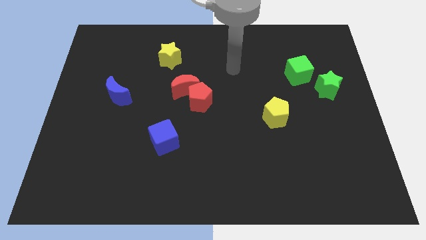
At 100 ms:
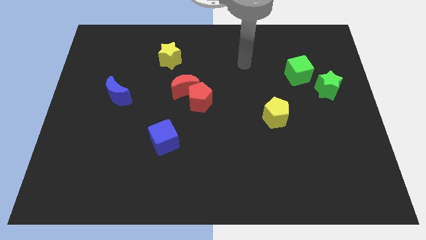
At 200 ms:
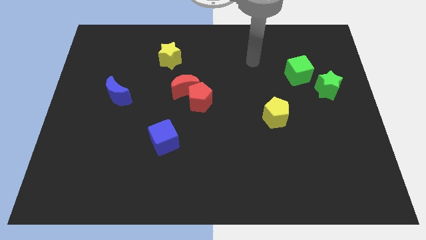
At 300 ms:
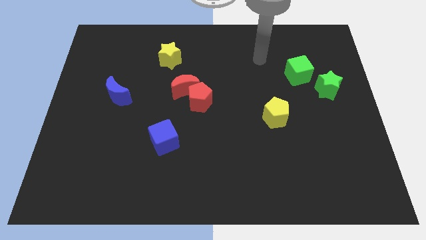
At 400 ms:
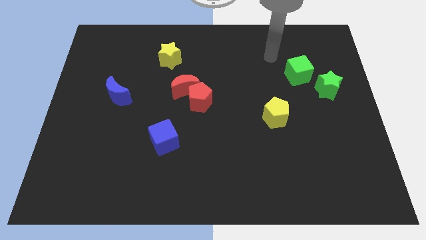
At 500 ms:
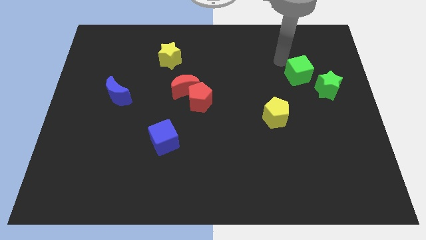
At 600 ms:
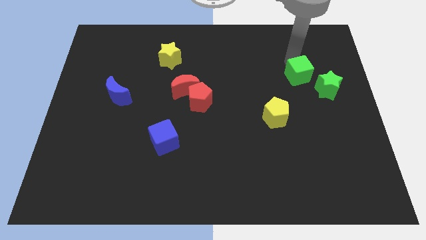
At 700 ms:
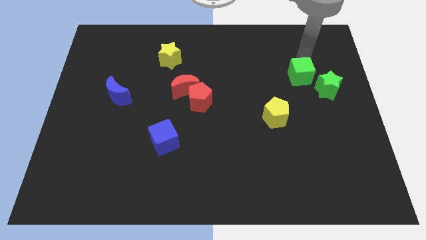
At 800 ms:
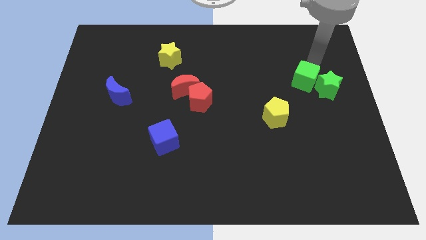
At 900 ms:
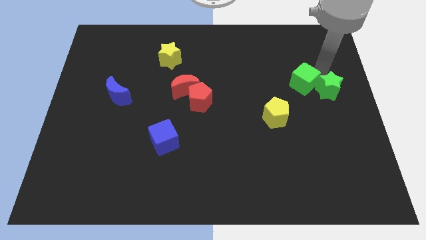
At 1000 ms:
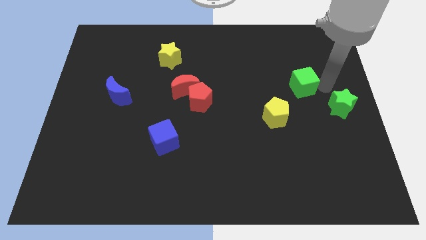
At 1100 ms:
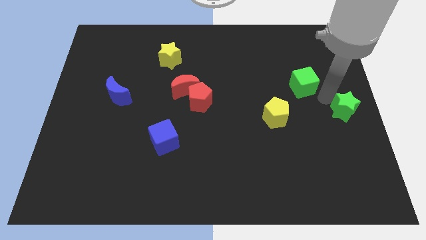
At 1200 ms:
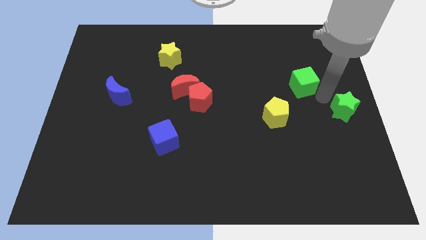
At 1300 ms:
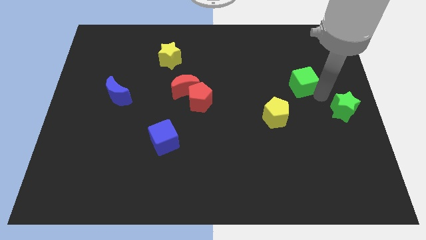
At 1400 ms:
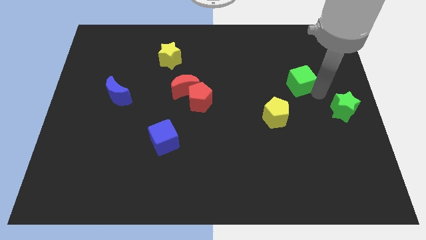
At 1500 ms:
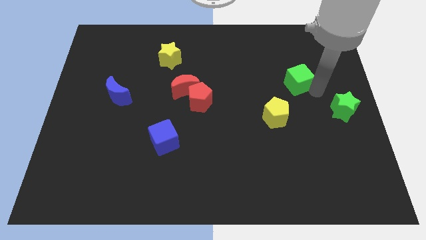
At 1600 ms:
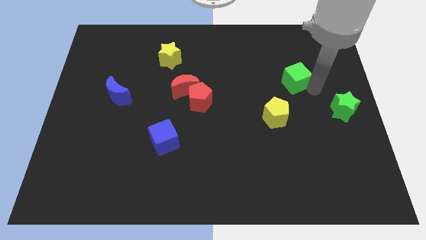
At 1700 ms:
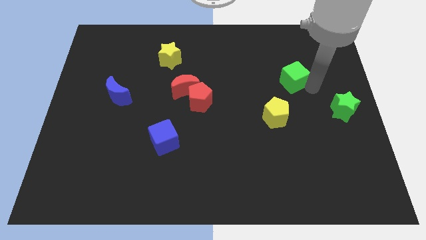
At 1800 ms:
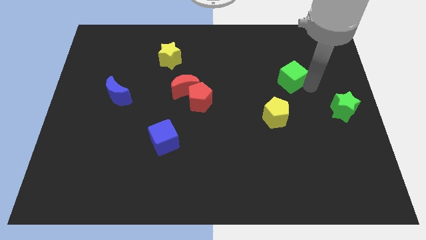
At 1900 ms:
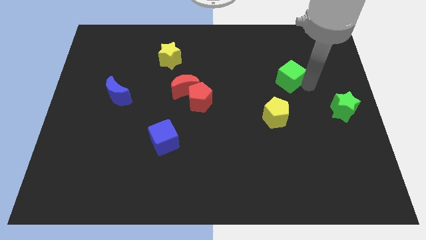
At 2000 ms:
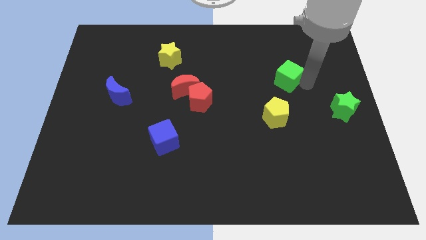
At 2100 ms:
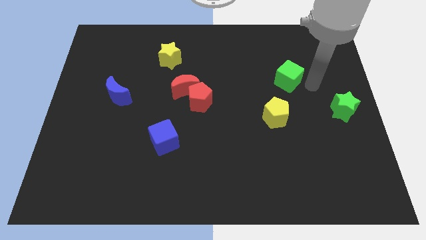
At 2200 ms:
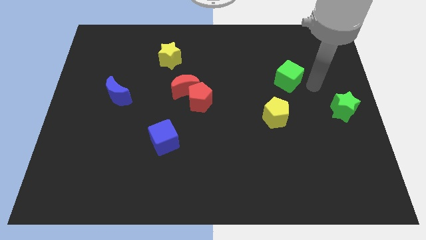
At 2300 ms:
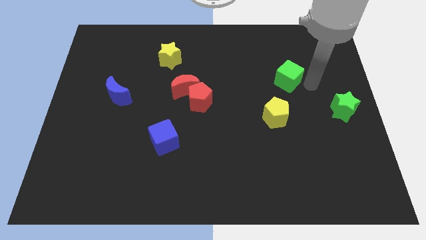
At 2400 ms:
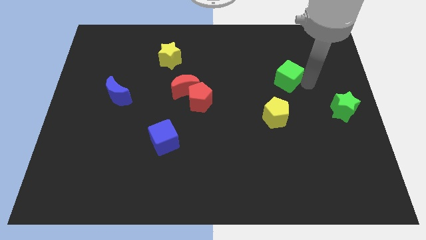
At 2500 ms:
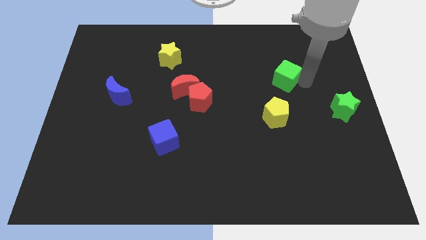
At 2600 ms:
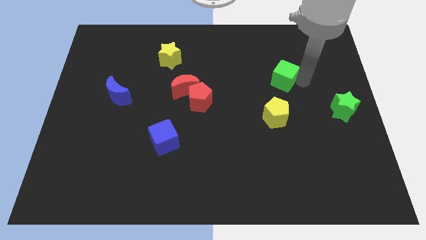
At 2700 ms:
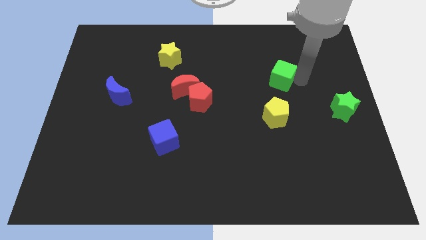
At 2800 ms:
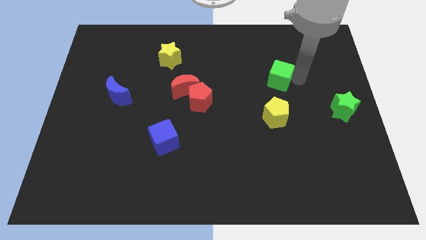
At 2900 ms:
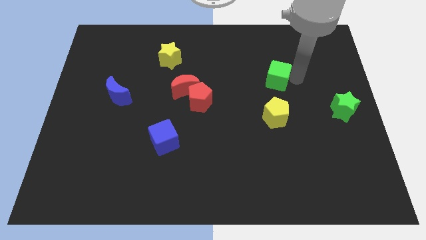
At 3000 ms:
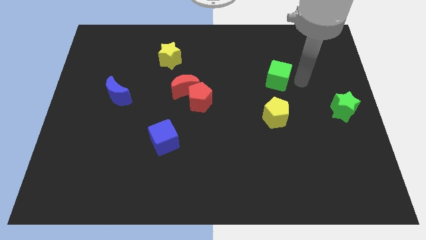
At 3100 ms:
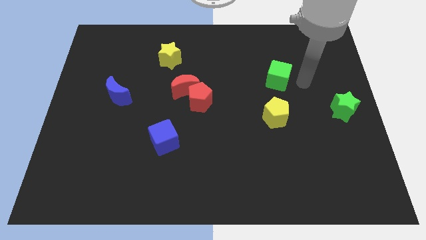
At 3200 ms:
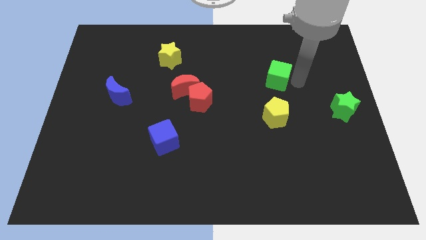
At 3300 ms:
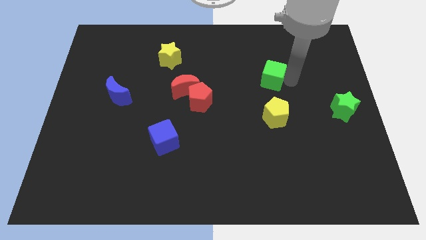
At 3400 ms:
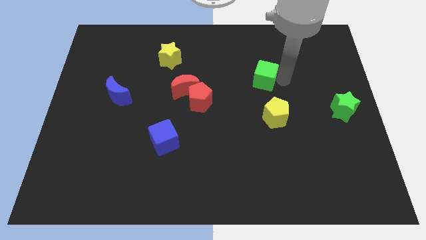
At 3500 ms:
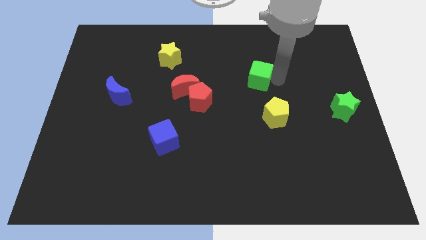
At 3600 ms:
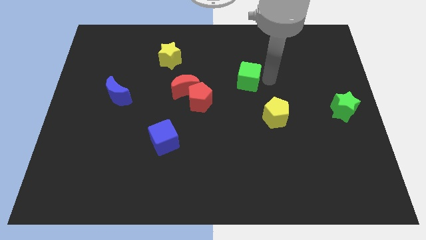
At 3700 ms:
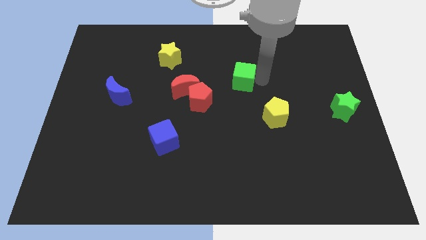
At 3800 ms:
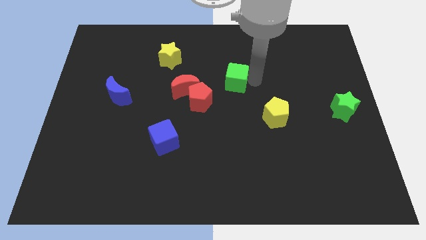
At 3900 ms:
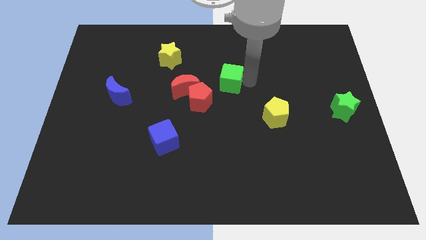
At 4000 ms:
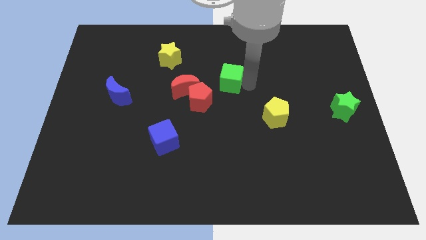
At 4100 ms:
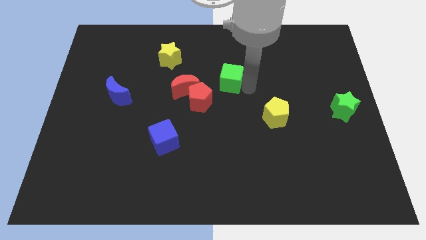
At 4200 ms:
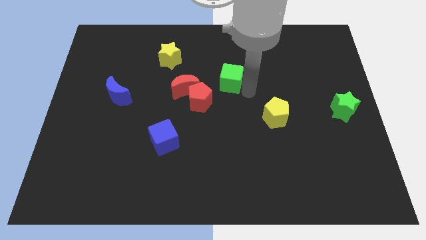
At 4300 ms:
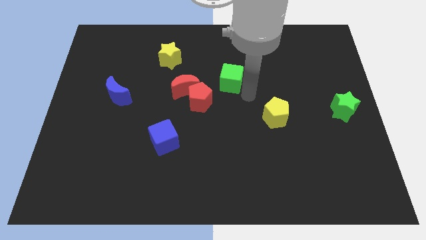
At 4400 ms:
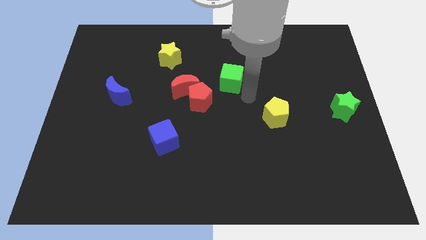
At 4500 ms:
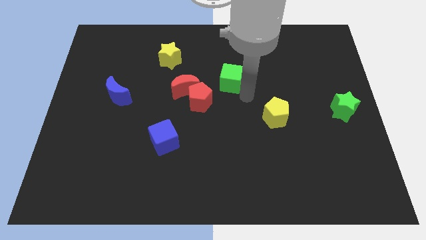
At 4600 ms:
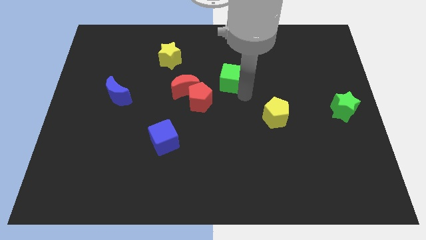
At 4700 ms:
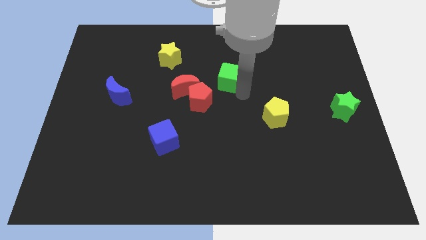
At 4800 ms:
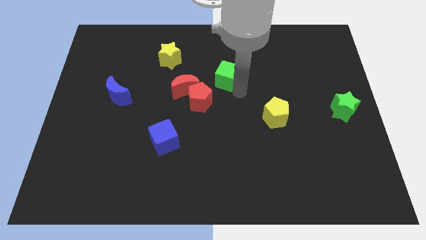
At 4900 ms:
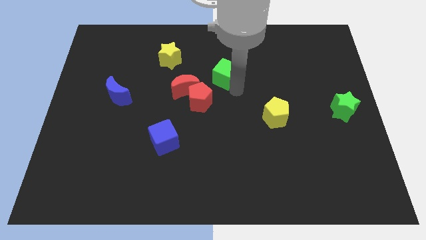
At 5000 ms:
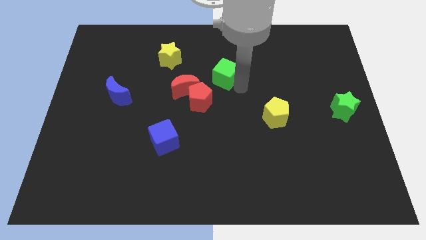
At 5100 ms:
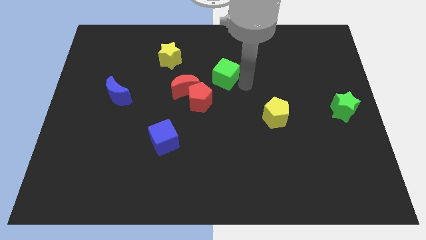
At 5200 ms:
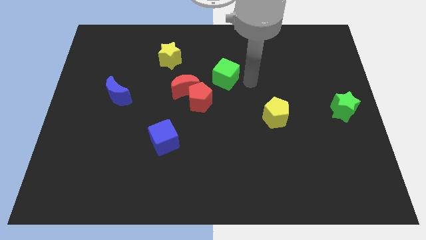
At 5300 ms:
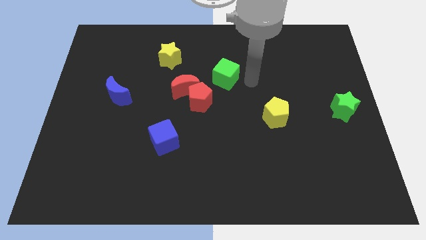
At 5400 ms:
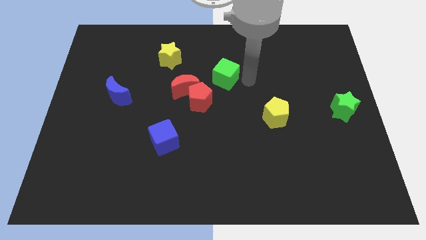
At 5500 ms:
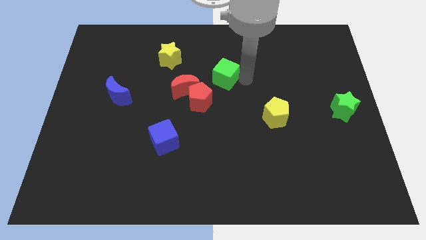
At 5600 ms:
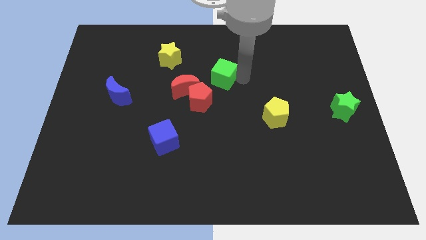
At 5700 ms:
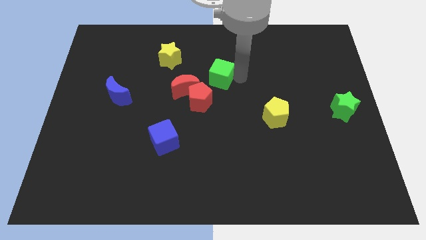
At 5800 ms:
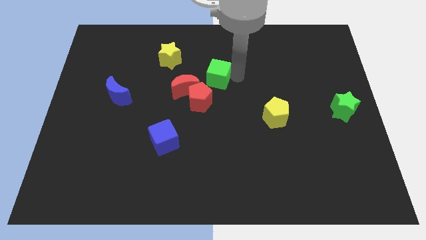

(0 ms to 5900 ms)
slide the green cube to the left

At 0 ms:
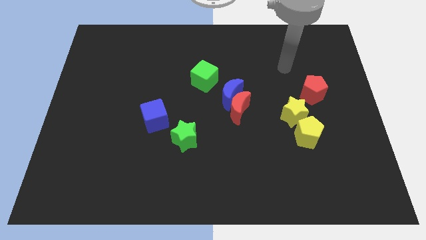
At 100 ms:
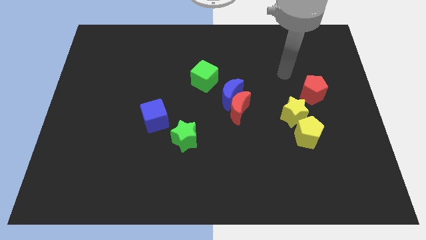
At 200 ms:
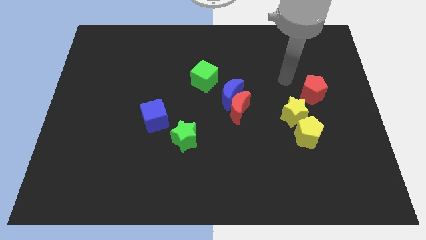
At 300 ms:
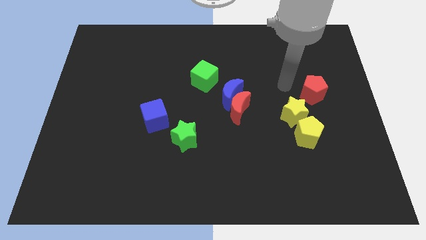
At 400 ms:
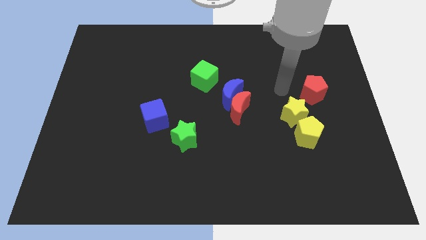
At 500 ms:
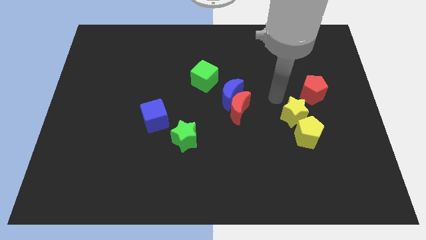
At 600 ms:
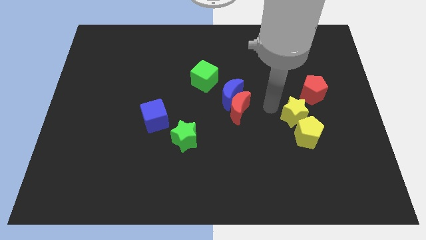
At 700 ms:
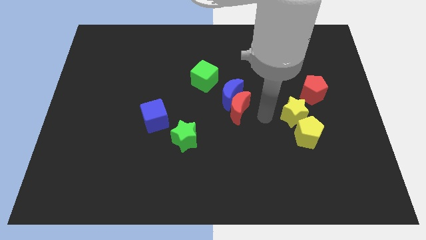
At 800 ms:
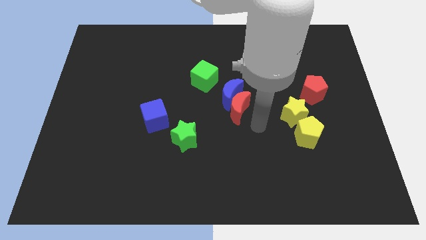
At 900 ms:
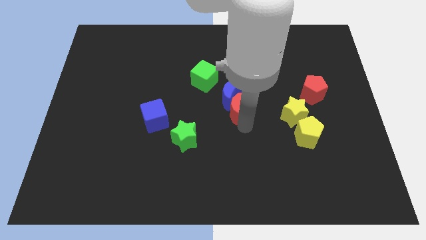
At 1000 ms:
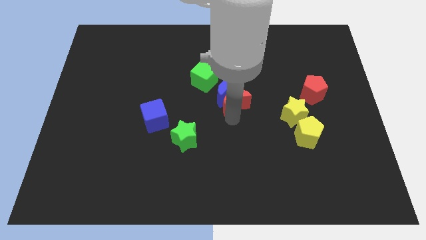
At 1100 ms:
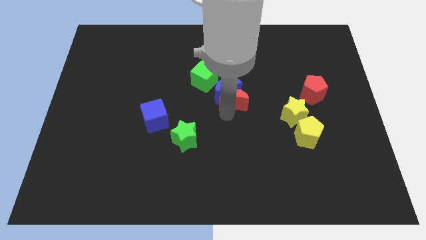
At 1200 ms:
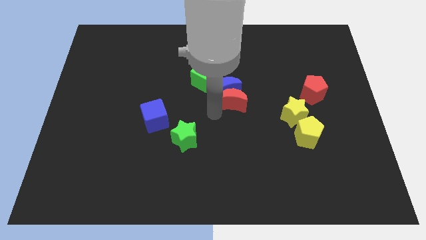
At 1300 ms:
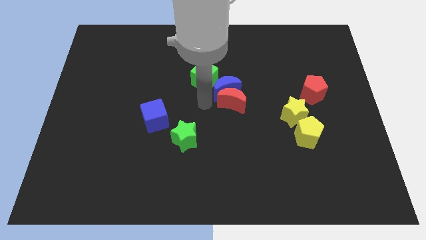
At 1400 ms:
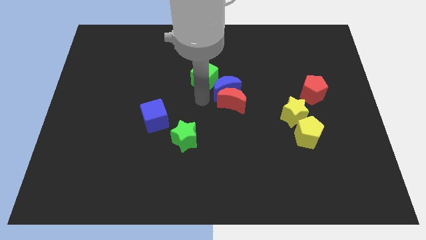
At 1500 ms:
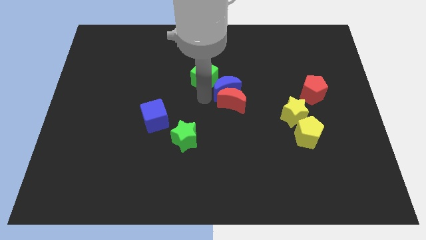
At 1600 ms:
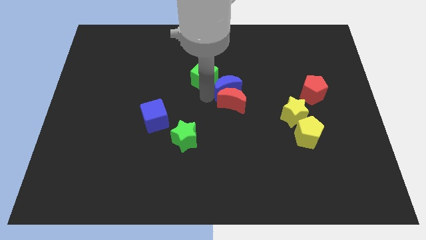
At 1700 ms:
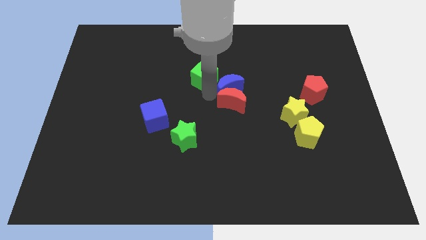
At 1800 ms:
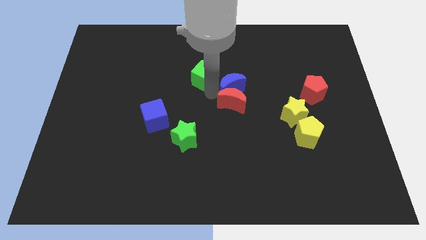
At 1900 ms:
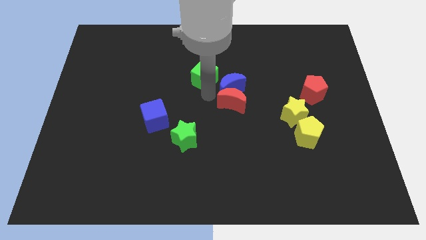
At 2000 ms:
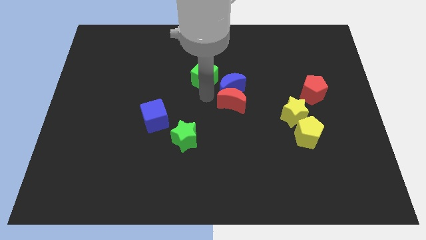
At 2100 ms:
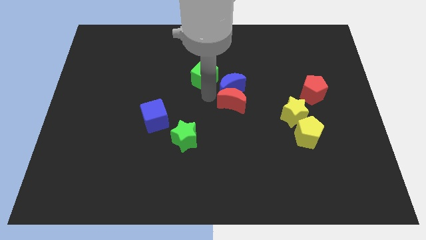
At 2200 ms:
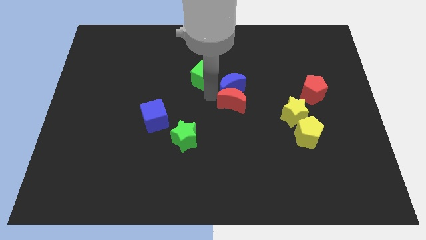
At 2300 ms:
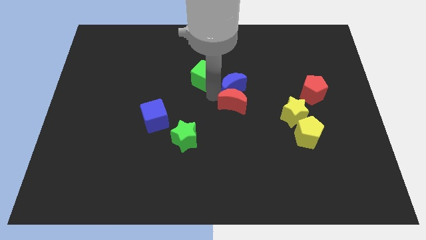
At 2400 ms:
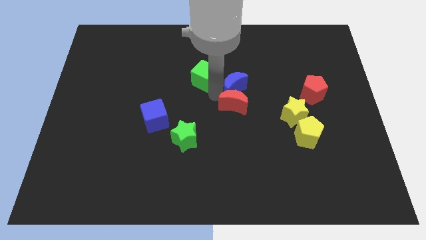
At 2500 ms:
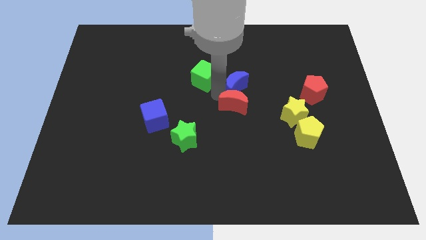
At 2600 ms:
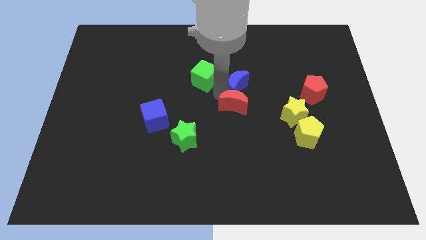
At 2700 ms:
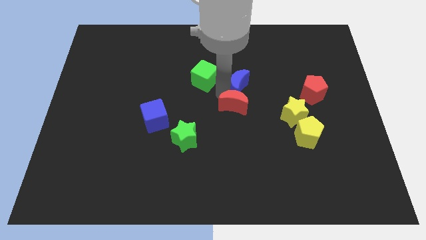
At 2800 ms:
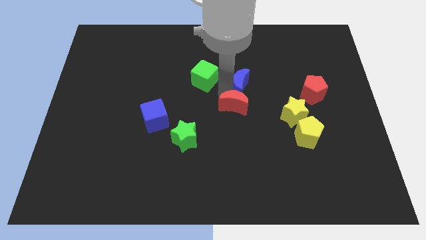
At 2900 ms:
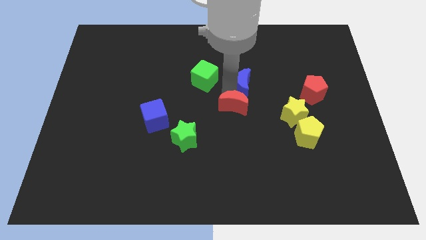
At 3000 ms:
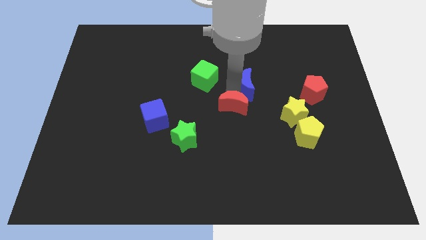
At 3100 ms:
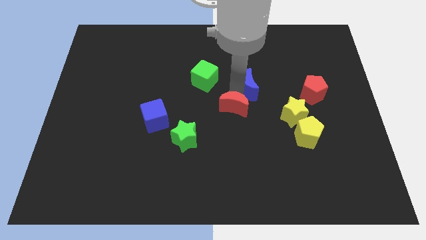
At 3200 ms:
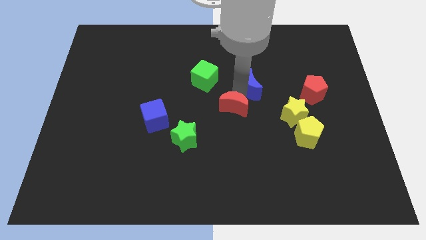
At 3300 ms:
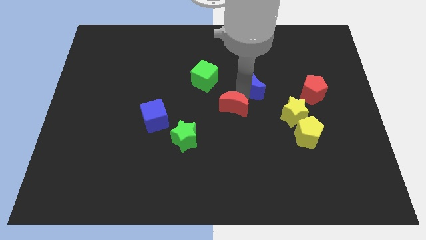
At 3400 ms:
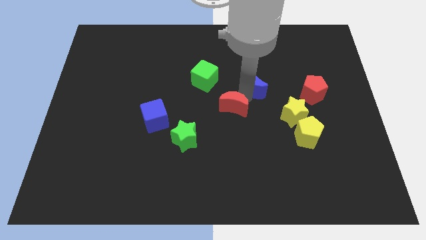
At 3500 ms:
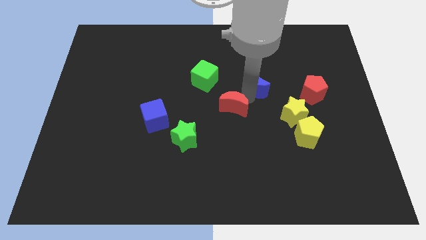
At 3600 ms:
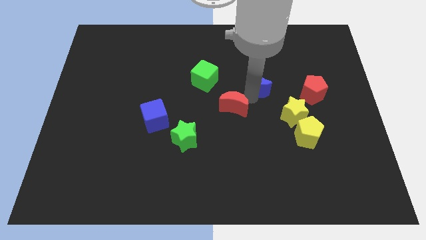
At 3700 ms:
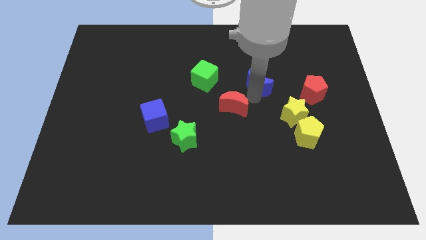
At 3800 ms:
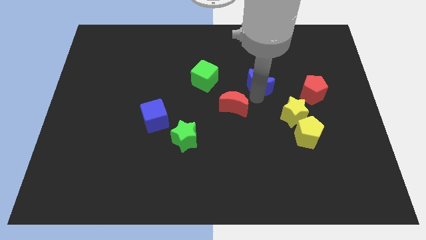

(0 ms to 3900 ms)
slide the blue moon a little bit upwards and then right
